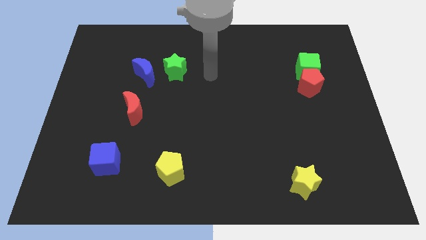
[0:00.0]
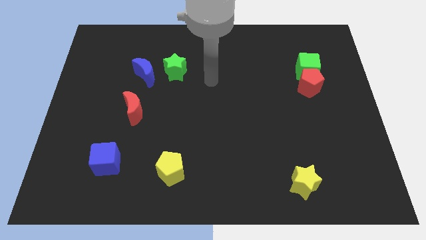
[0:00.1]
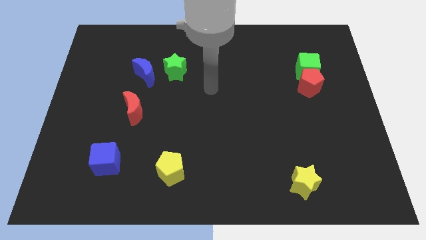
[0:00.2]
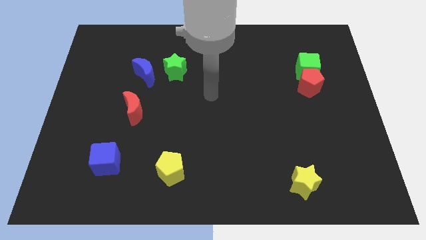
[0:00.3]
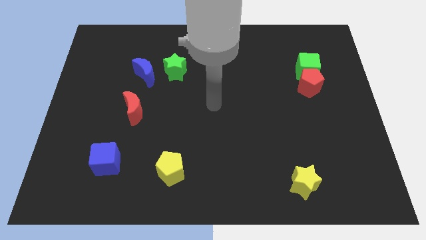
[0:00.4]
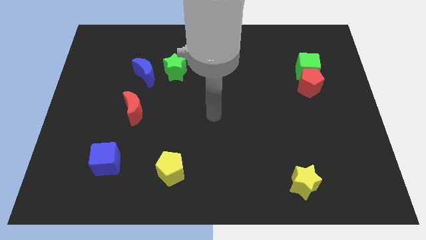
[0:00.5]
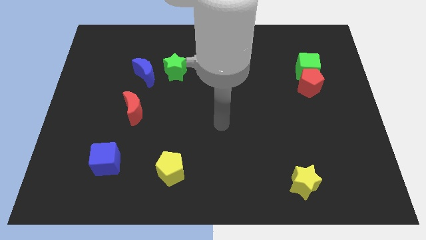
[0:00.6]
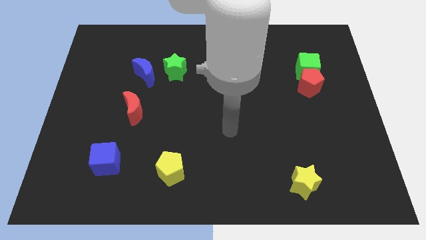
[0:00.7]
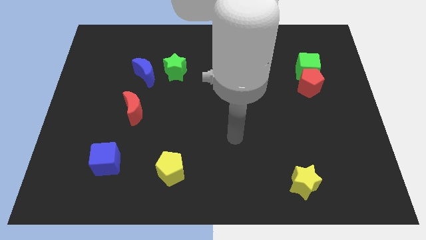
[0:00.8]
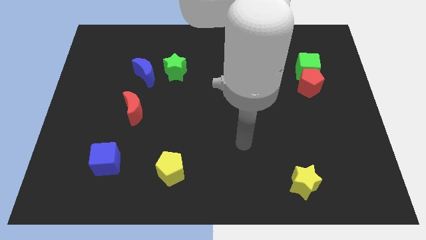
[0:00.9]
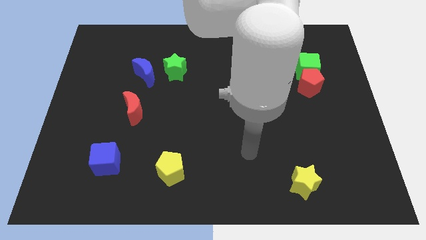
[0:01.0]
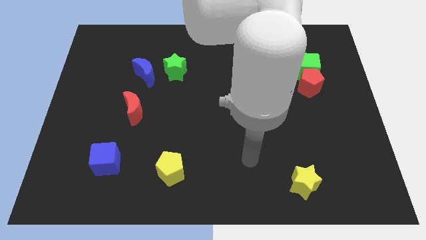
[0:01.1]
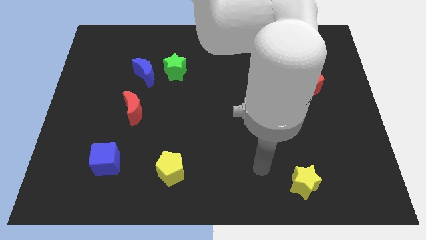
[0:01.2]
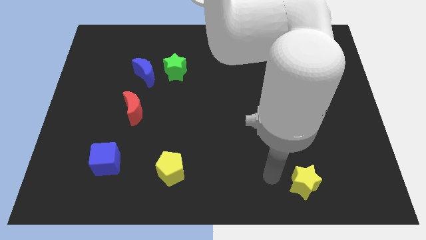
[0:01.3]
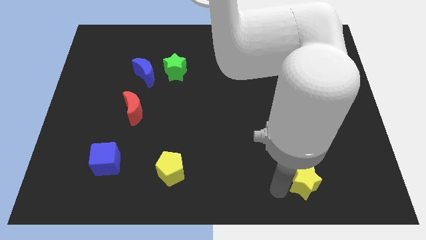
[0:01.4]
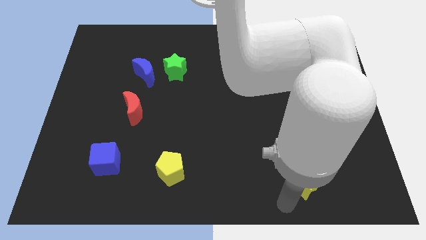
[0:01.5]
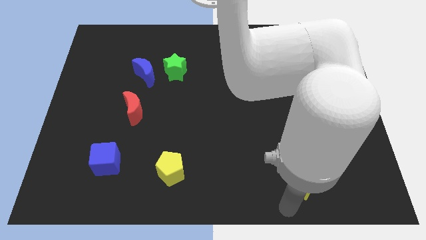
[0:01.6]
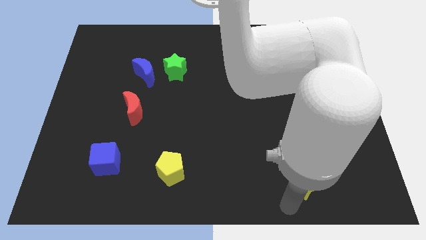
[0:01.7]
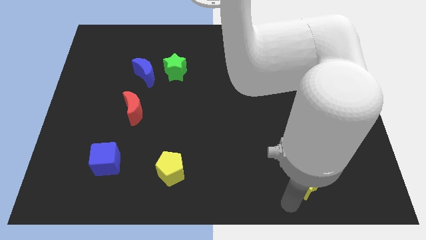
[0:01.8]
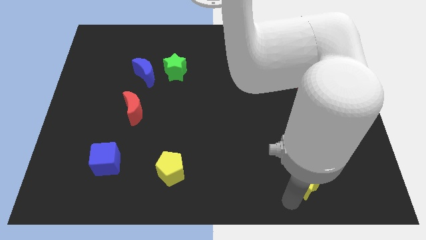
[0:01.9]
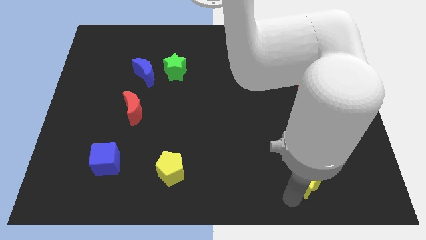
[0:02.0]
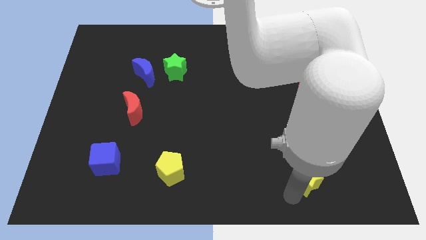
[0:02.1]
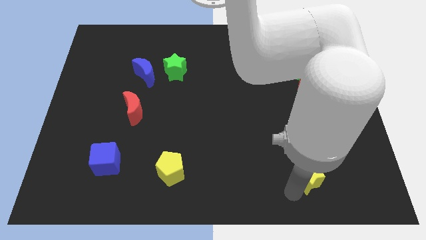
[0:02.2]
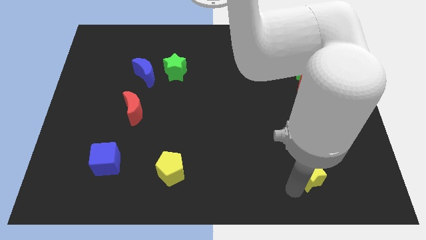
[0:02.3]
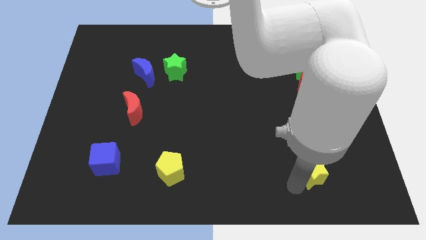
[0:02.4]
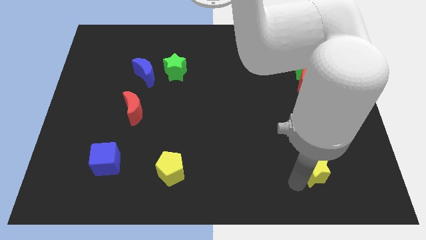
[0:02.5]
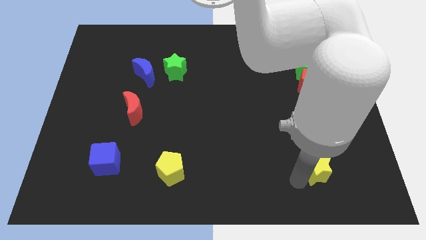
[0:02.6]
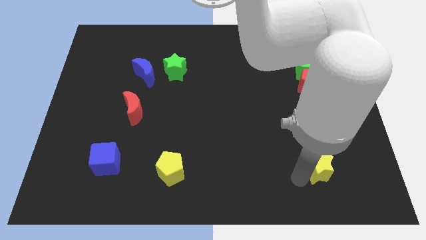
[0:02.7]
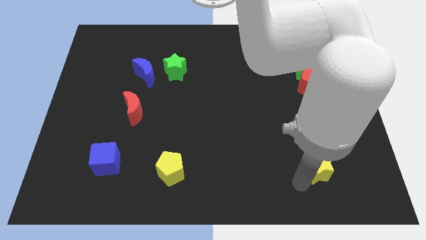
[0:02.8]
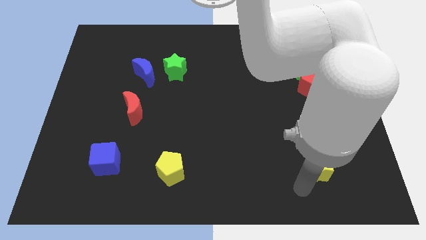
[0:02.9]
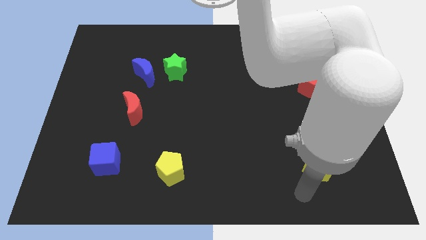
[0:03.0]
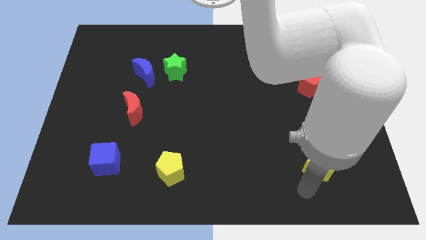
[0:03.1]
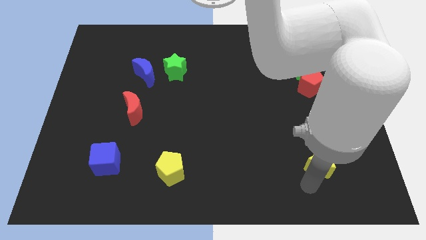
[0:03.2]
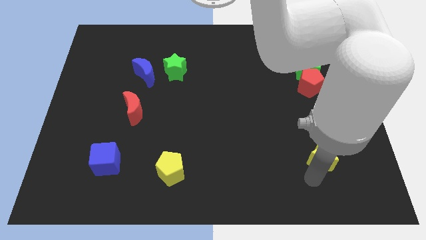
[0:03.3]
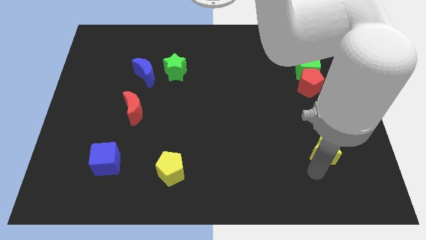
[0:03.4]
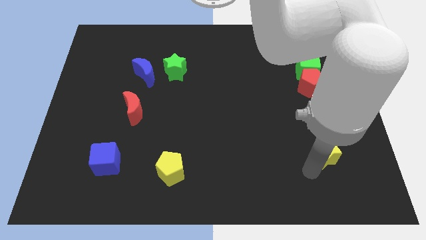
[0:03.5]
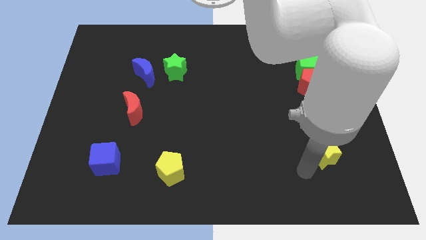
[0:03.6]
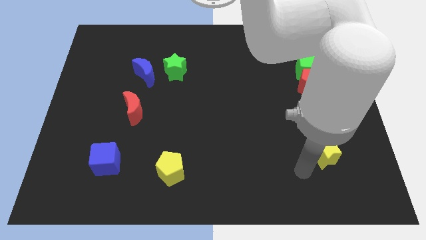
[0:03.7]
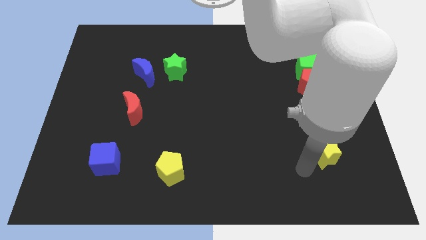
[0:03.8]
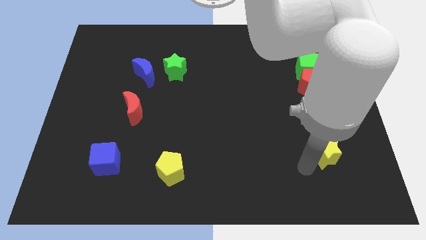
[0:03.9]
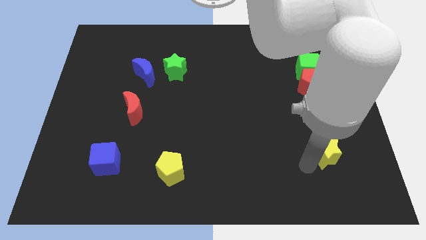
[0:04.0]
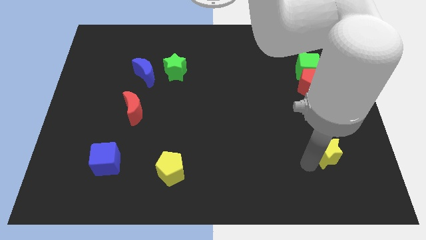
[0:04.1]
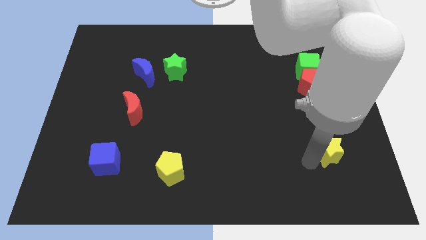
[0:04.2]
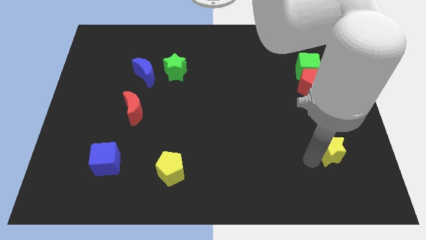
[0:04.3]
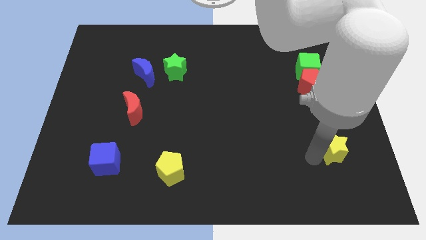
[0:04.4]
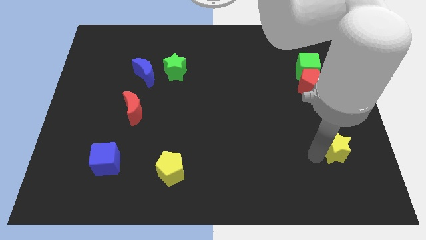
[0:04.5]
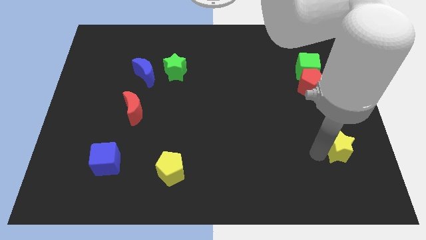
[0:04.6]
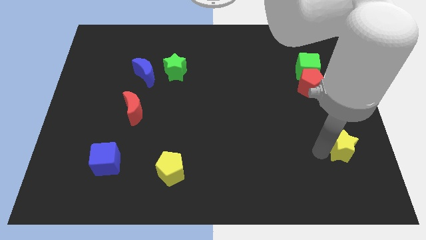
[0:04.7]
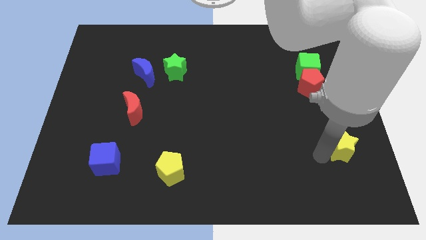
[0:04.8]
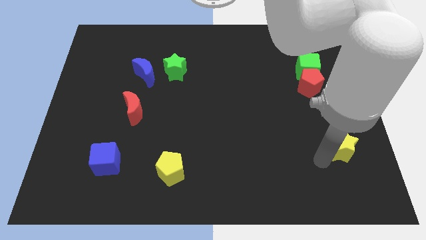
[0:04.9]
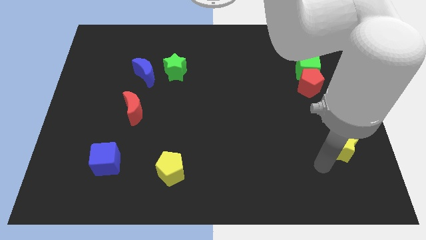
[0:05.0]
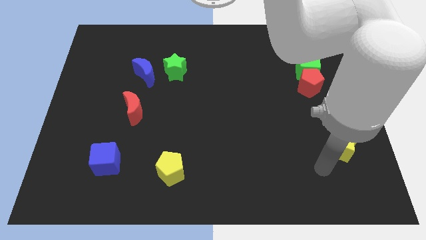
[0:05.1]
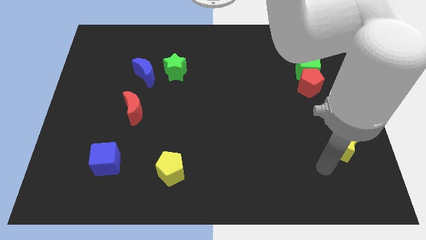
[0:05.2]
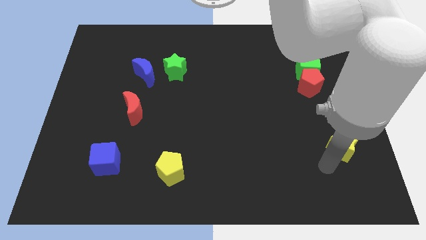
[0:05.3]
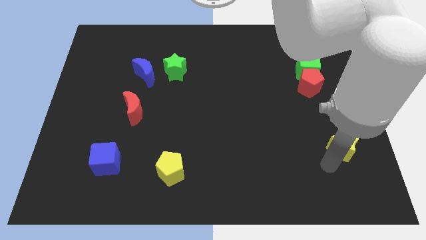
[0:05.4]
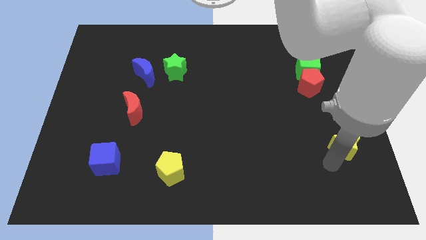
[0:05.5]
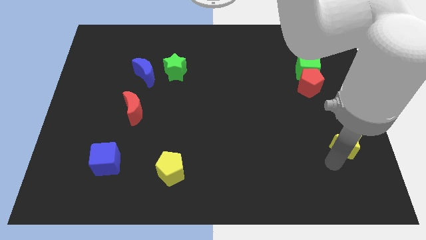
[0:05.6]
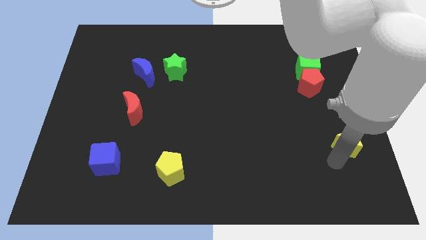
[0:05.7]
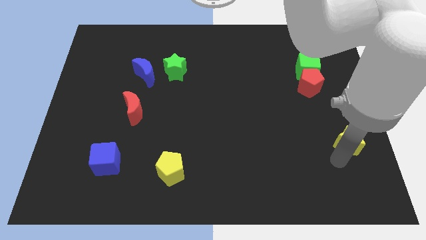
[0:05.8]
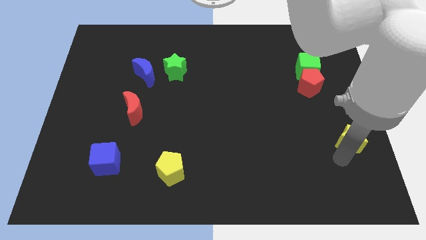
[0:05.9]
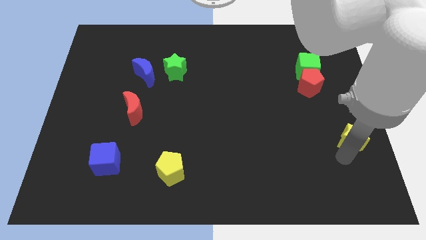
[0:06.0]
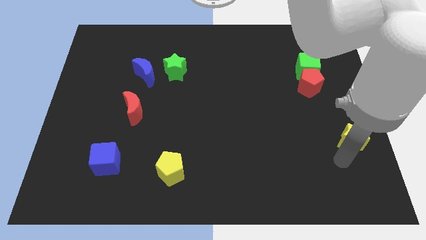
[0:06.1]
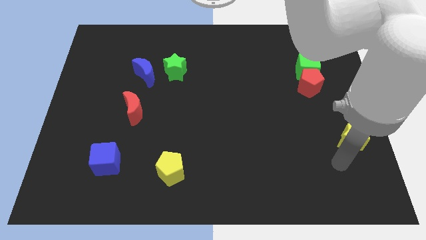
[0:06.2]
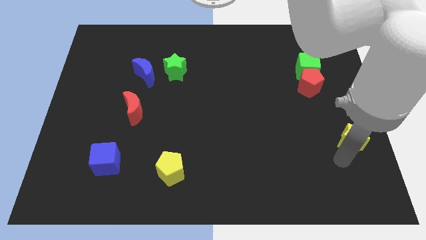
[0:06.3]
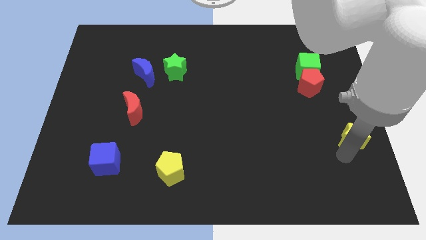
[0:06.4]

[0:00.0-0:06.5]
push the yellow star to the right side of the board
